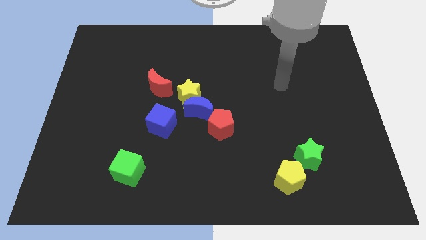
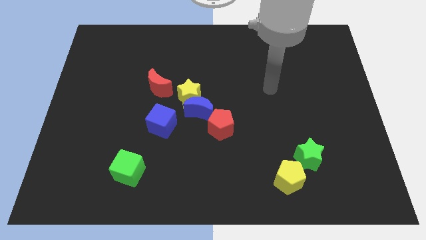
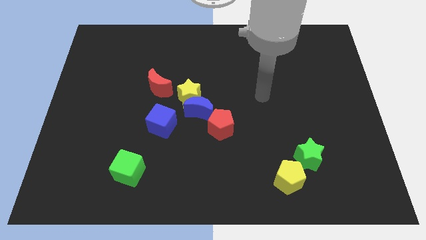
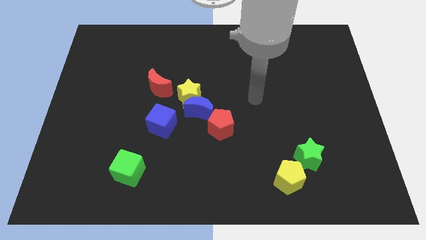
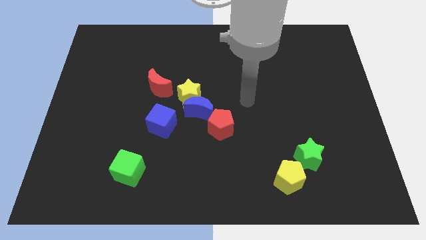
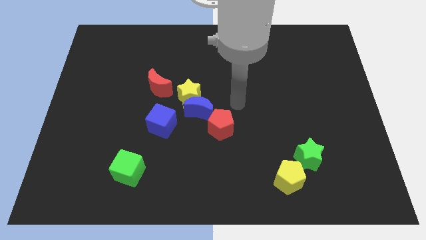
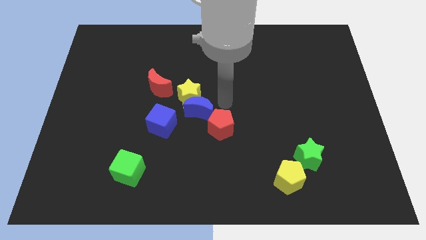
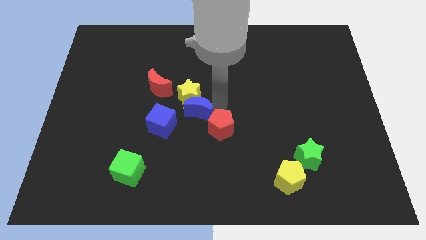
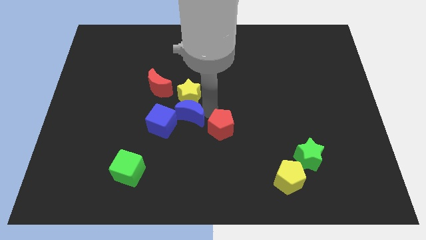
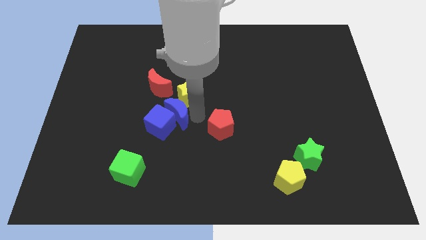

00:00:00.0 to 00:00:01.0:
move the red pentagon away from the blue moon

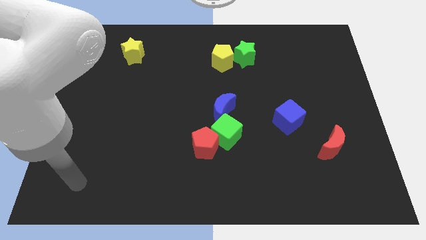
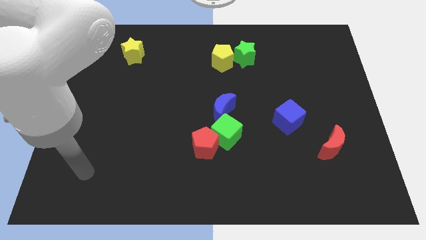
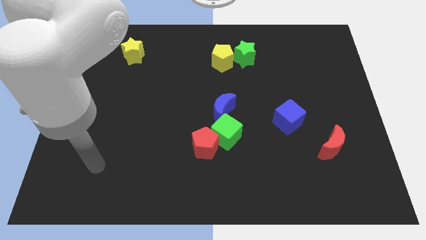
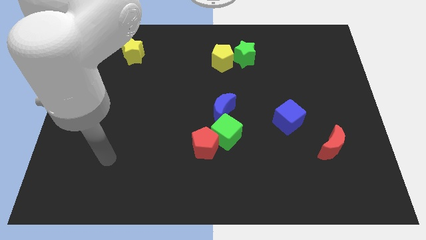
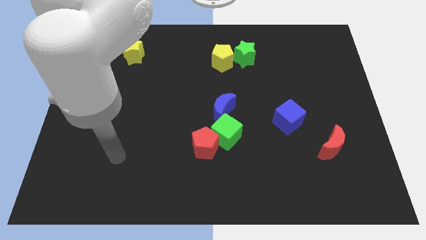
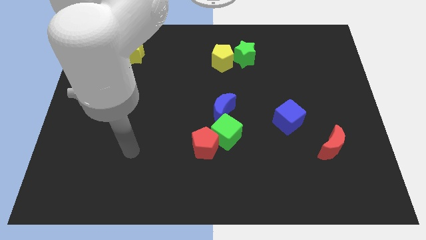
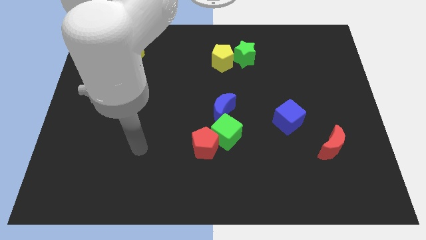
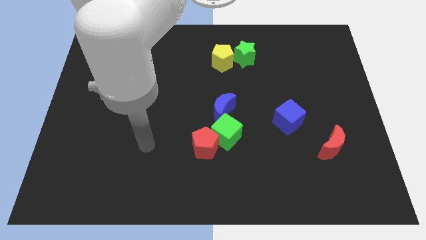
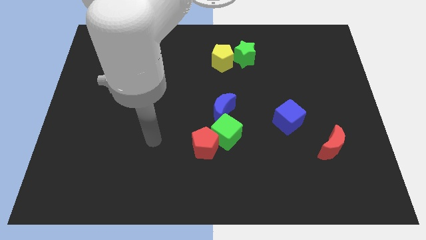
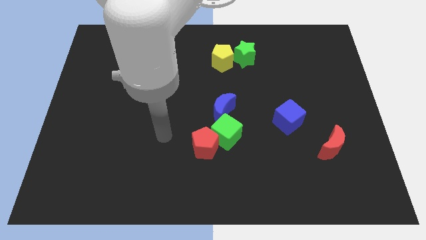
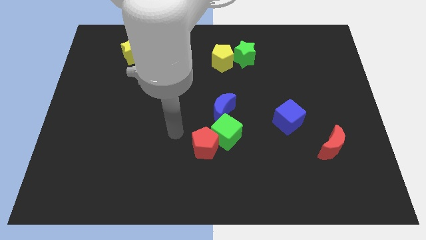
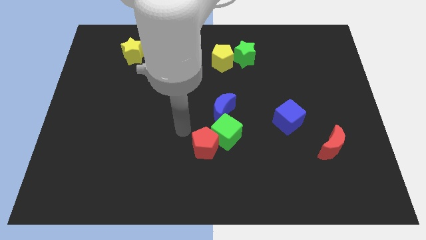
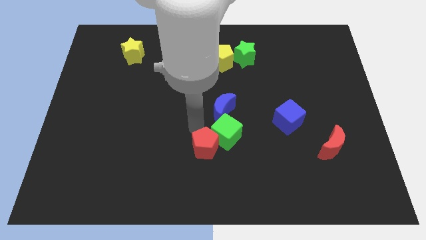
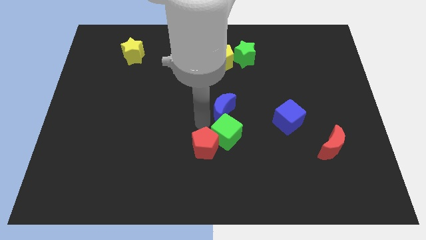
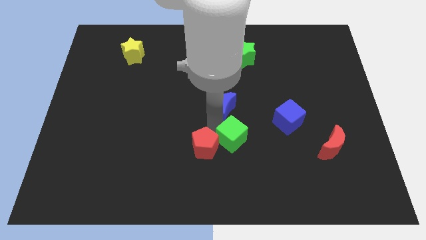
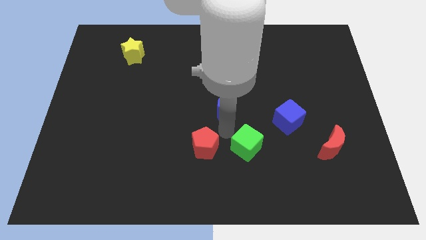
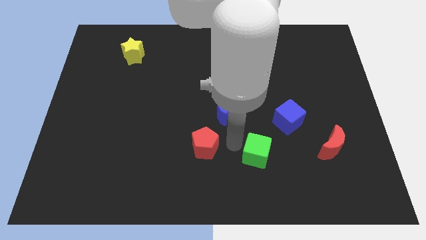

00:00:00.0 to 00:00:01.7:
separate the red pentagon from the green cube

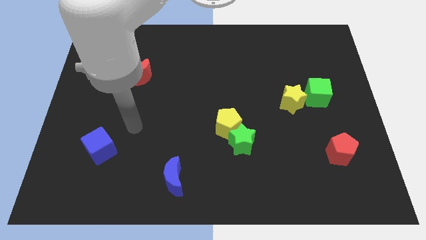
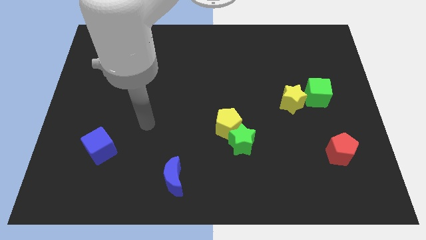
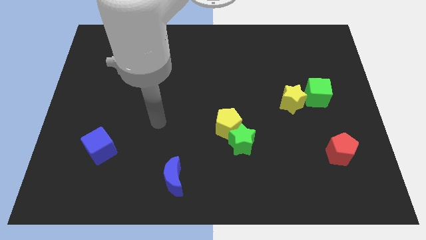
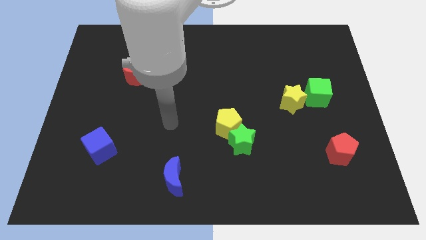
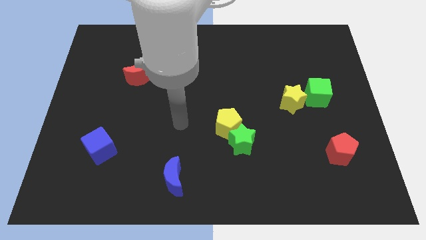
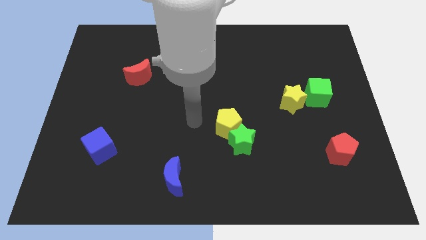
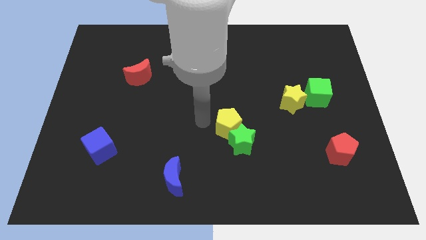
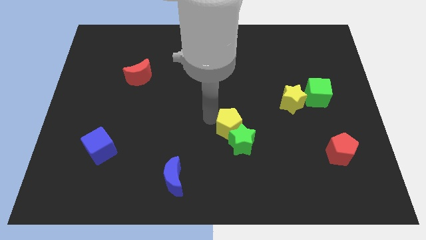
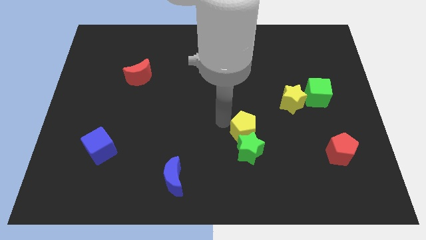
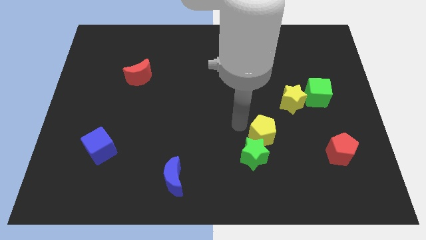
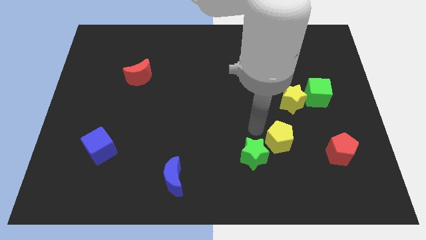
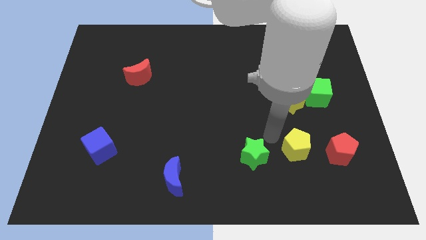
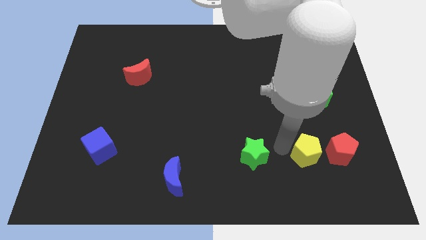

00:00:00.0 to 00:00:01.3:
pull the green star apart from the yellow pentagon

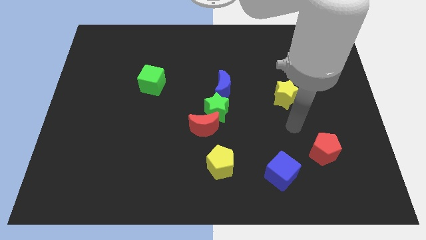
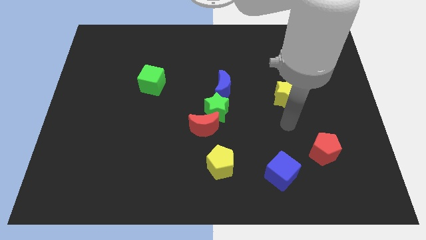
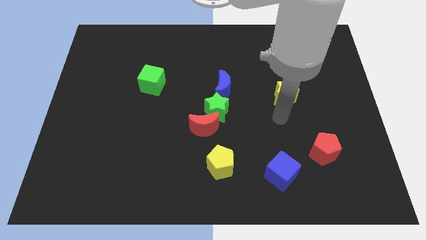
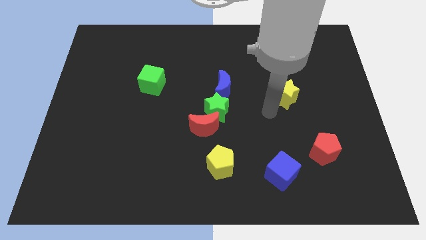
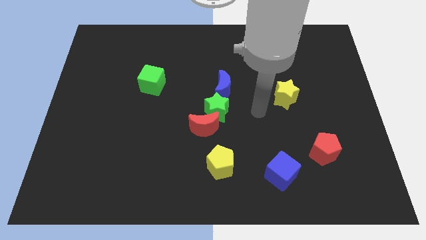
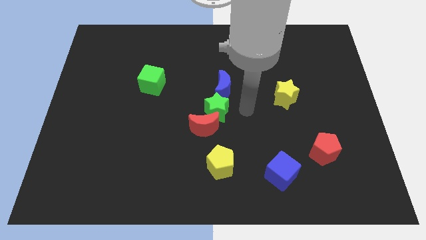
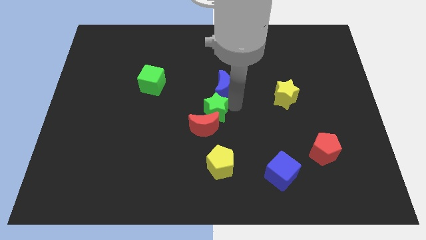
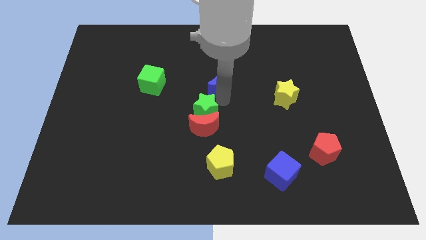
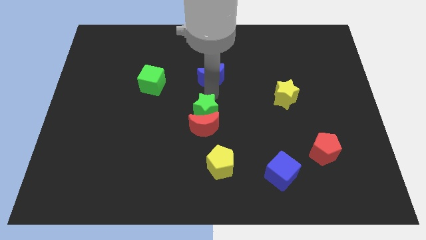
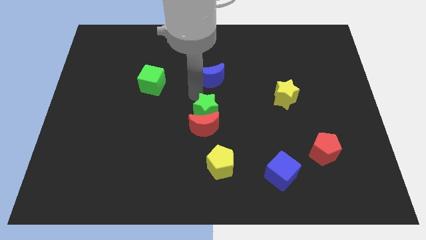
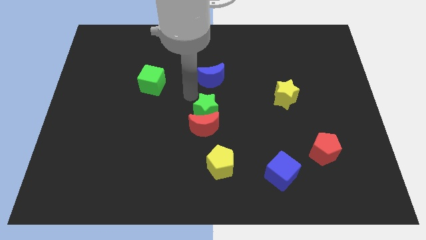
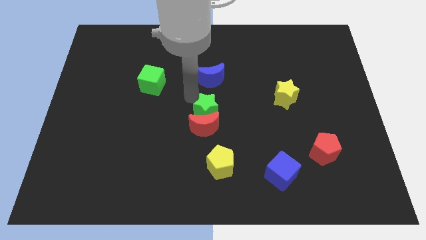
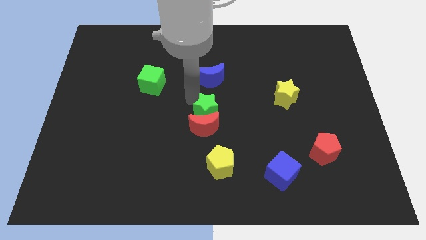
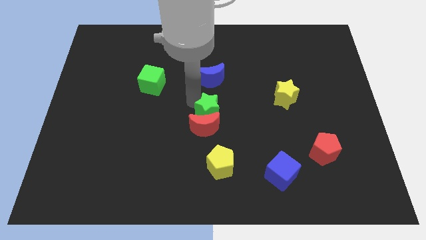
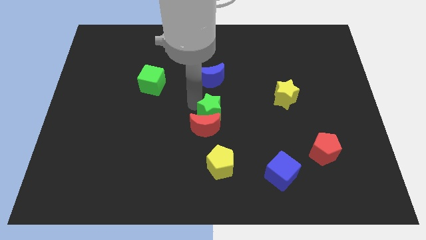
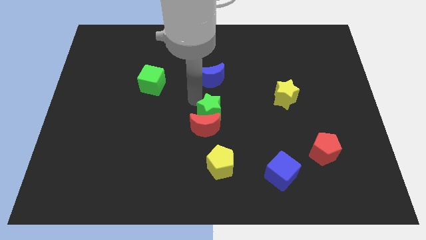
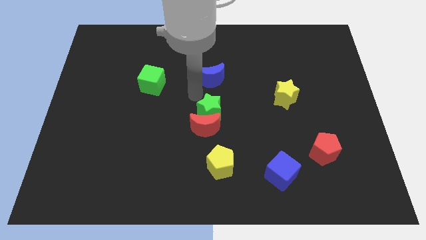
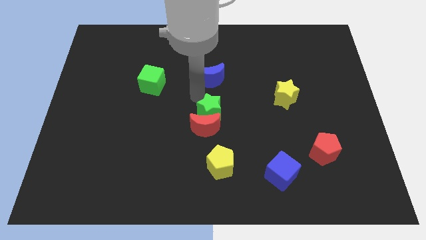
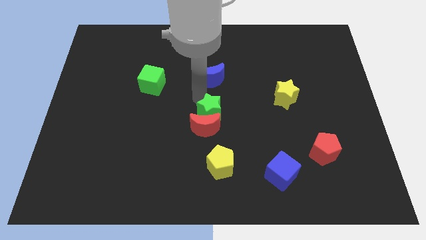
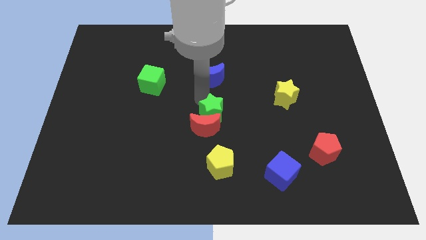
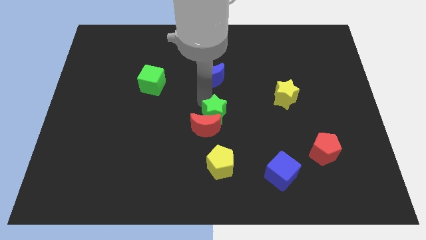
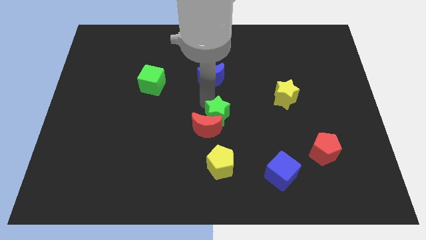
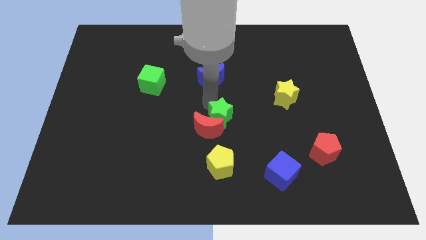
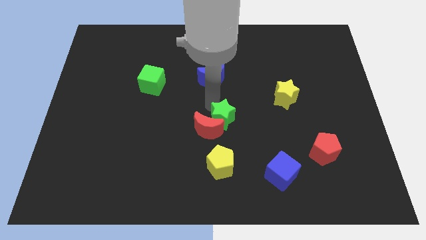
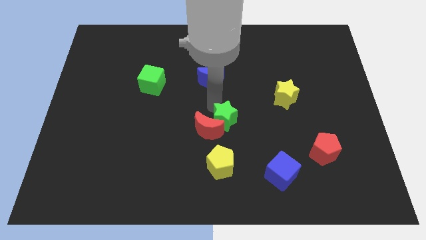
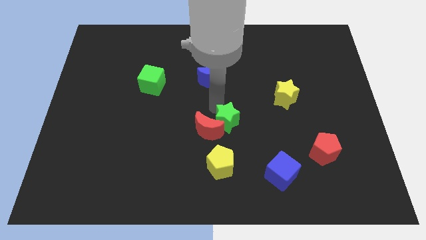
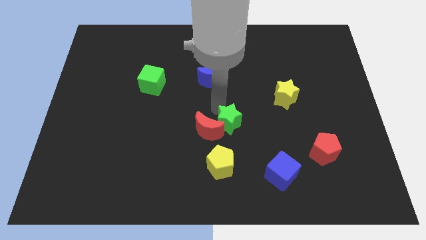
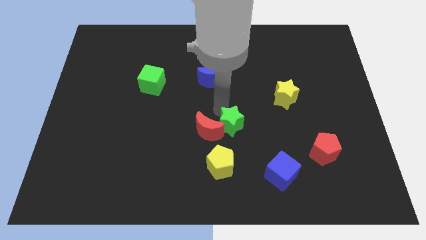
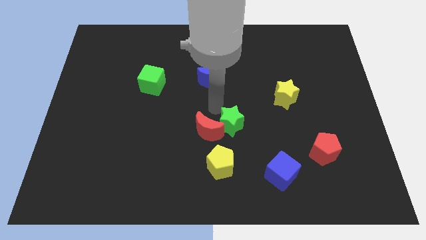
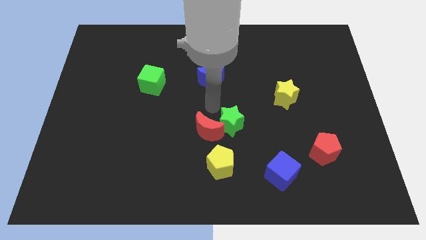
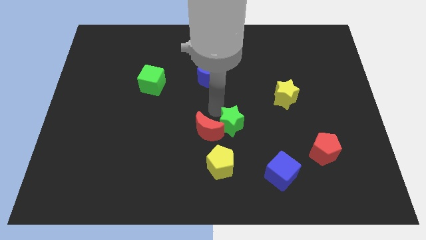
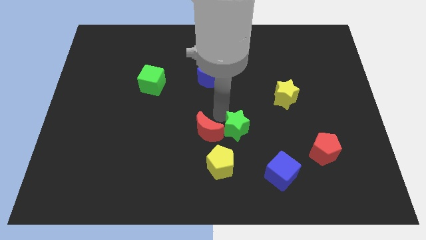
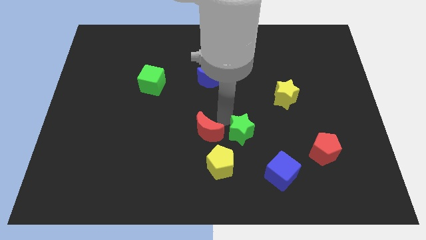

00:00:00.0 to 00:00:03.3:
separate the green star from the red moon and blue moon

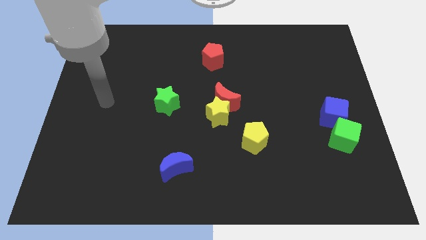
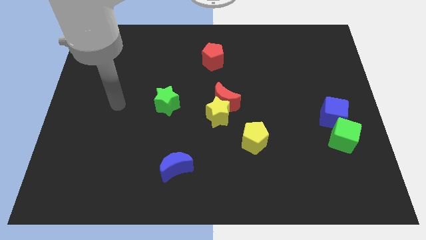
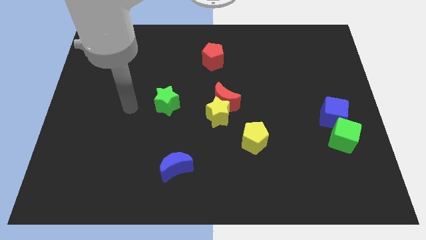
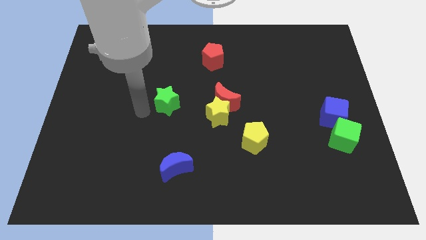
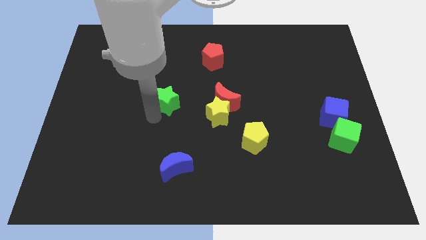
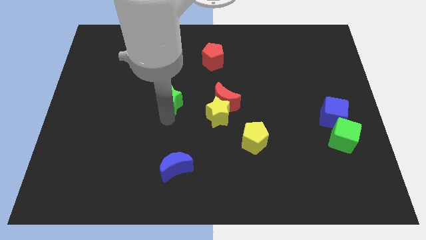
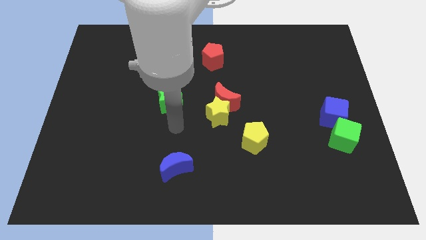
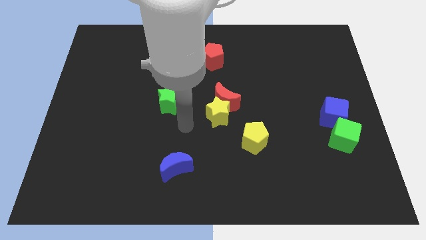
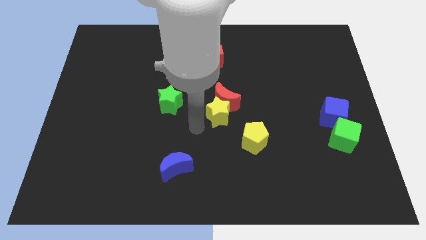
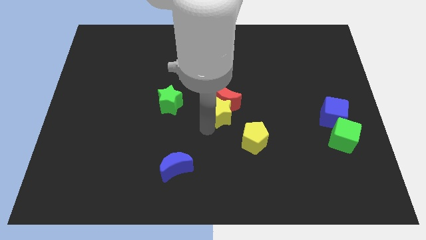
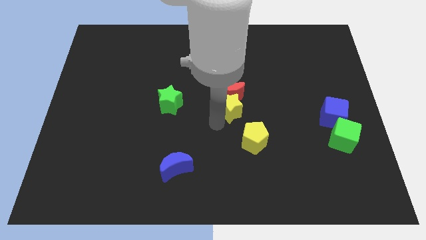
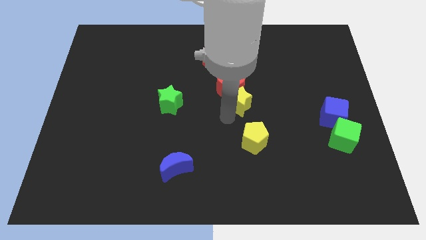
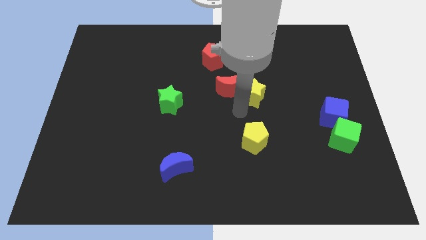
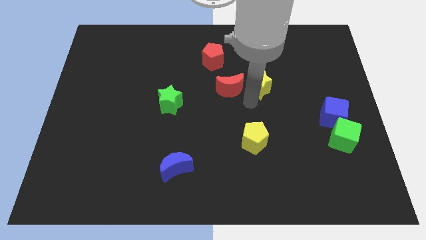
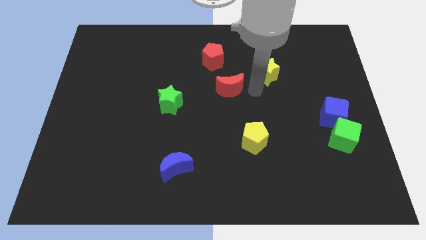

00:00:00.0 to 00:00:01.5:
separate the red moon from the yellow star

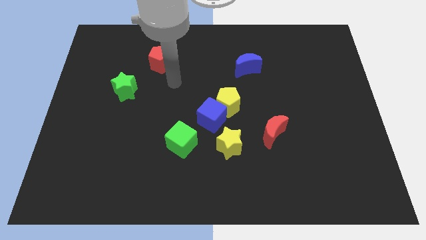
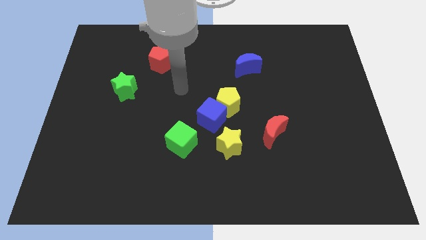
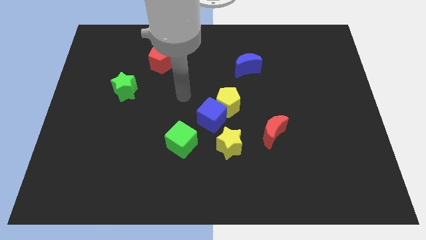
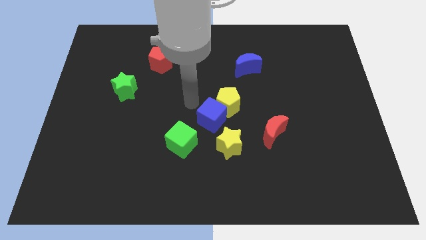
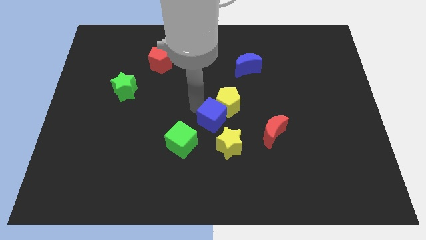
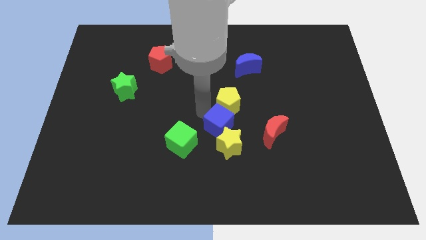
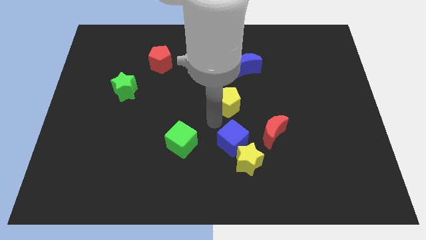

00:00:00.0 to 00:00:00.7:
pull the yellow pentagon apart from the blue cube
